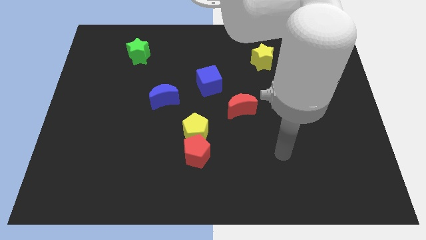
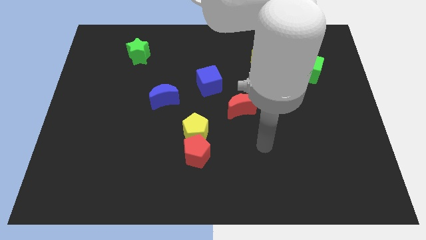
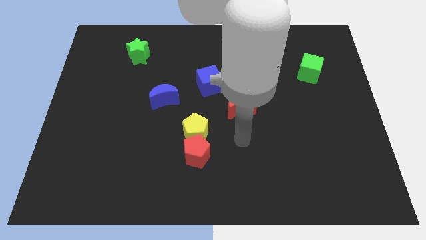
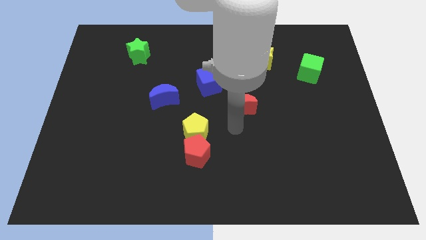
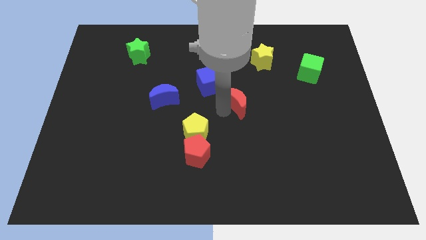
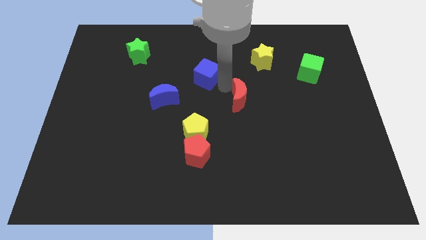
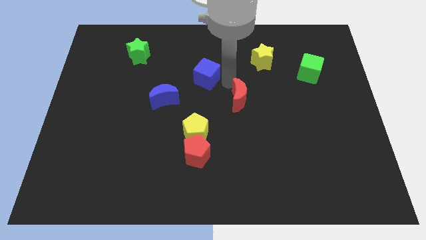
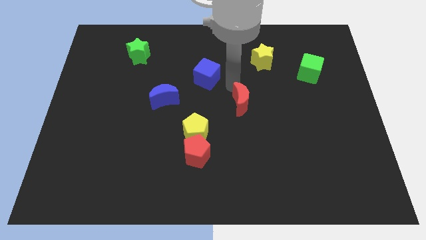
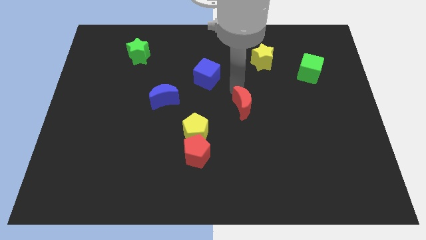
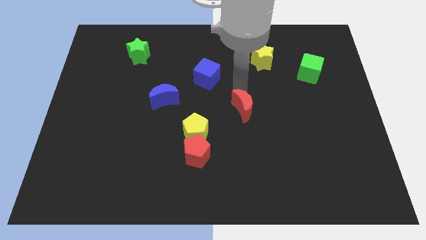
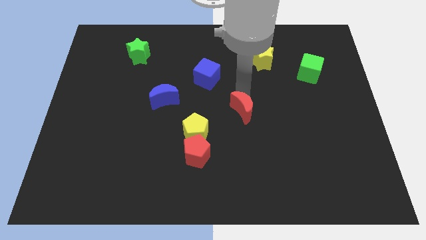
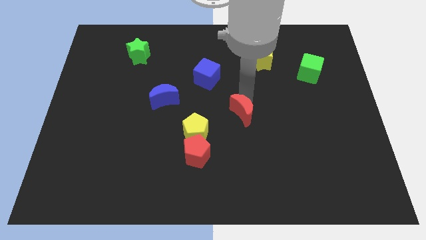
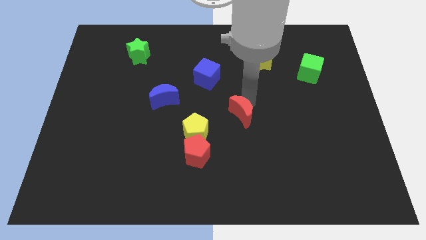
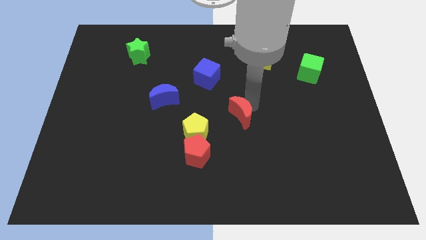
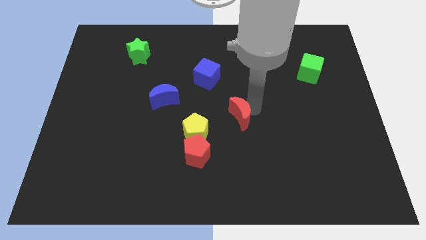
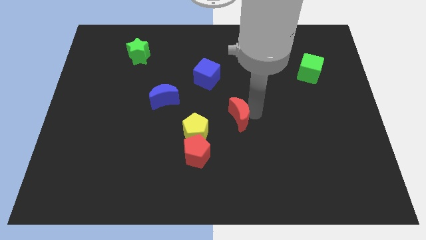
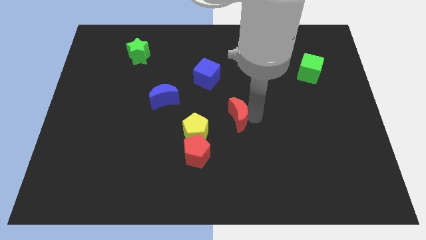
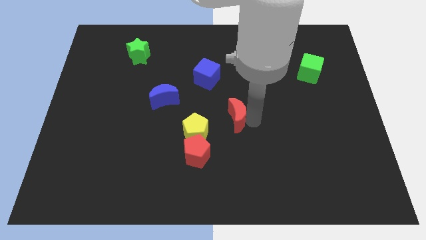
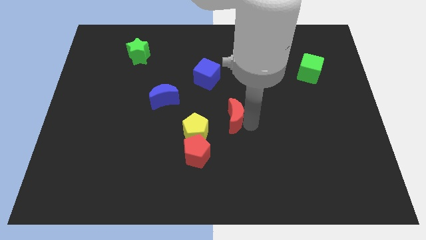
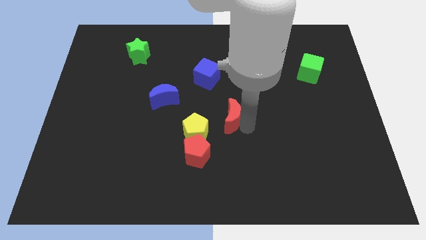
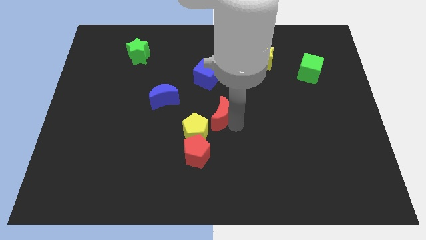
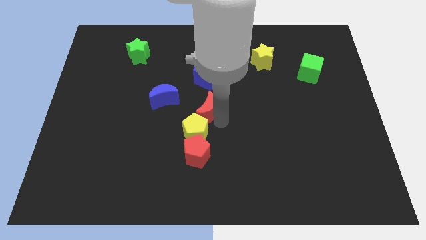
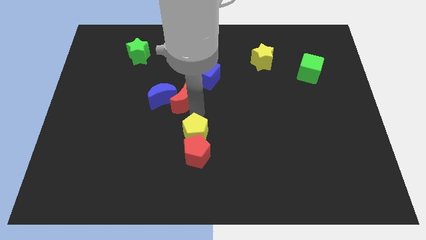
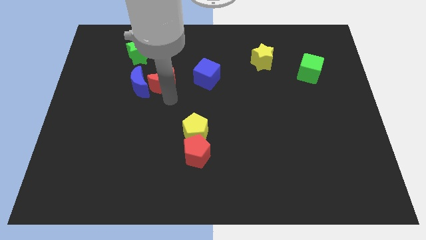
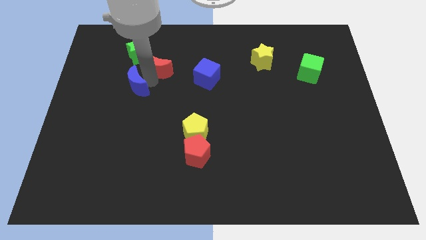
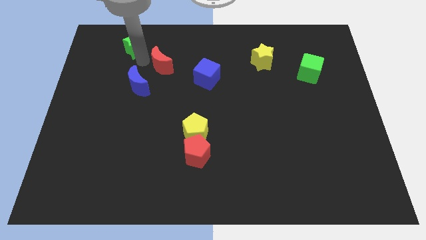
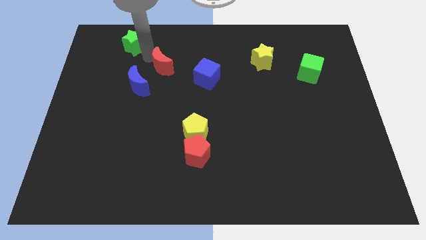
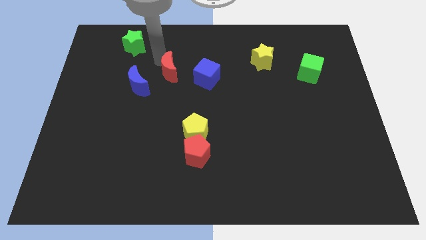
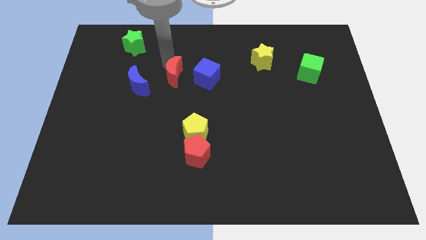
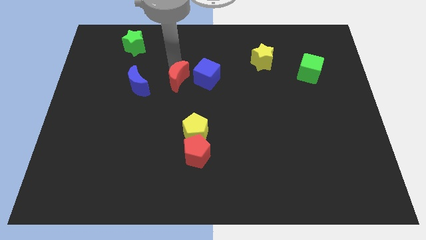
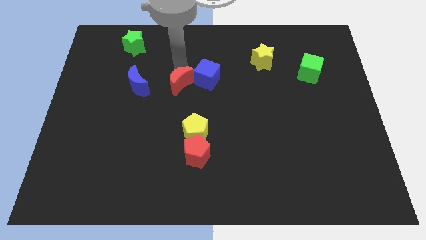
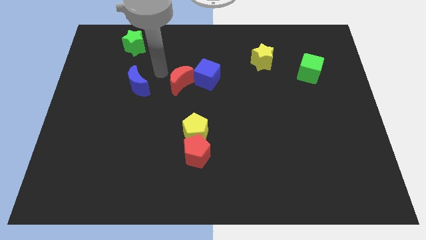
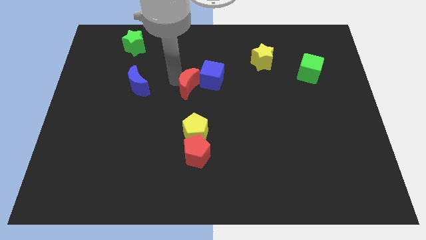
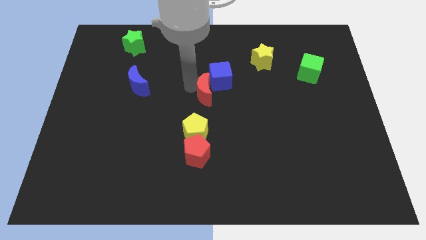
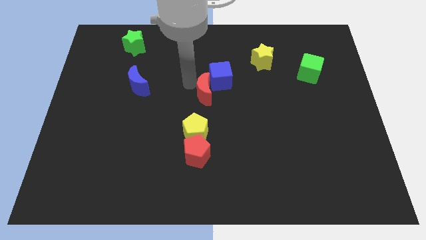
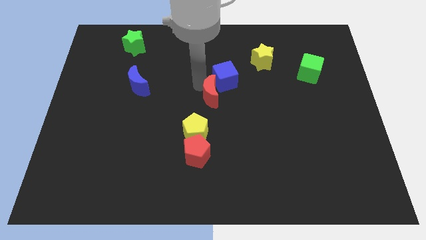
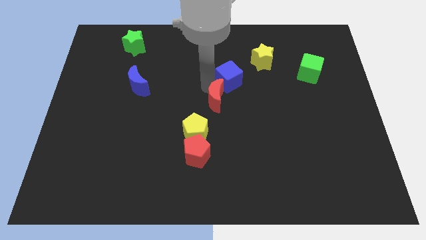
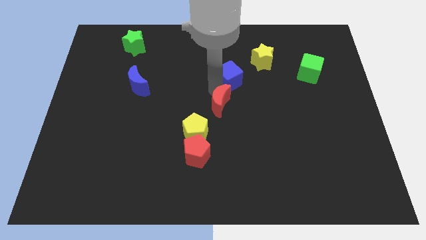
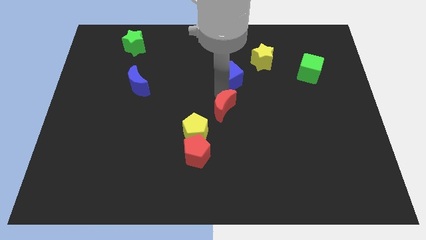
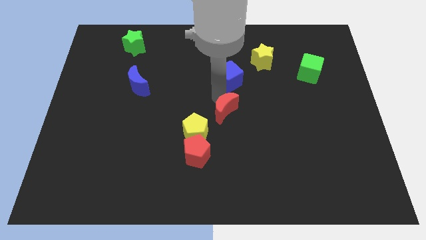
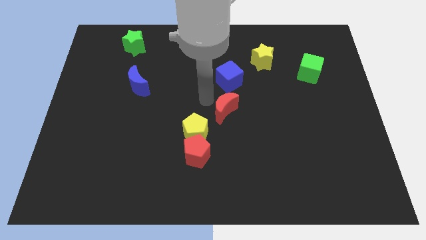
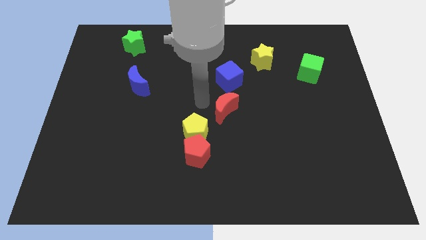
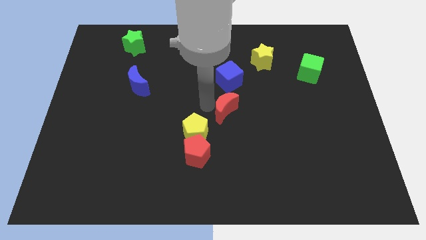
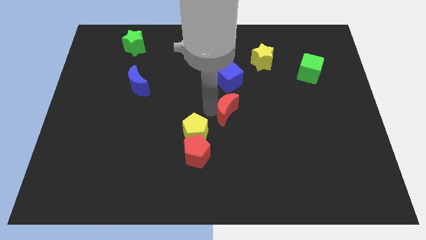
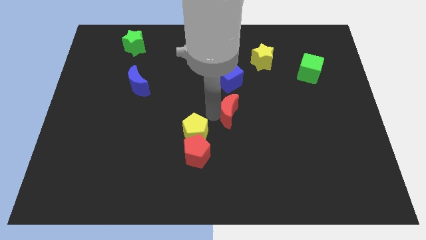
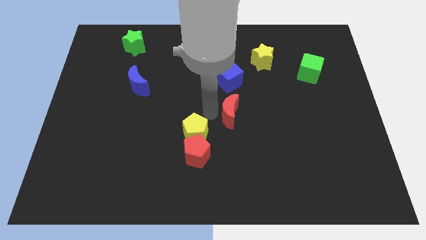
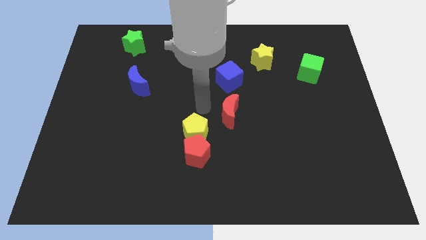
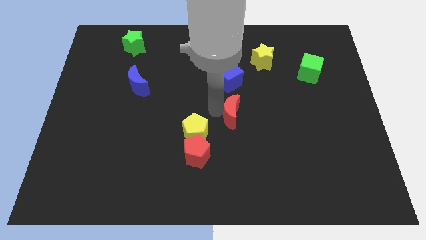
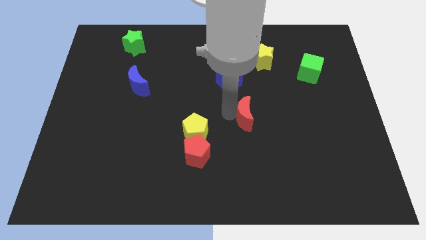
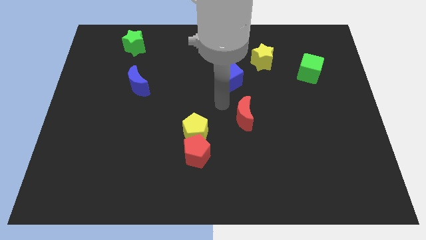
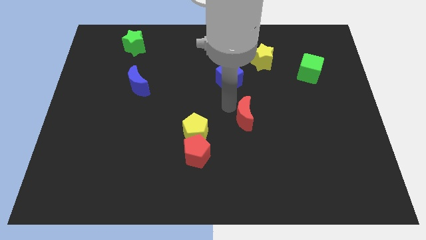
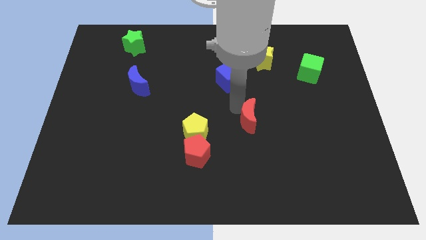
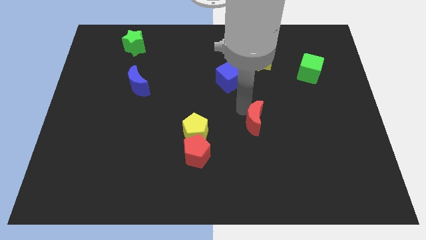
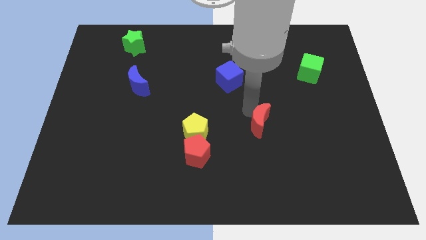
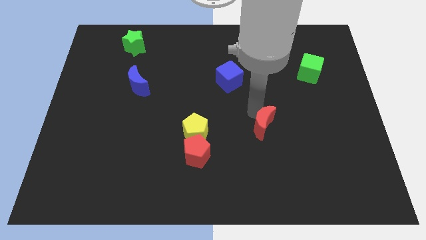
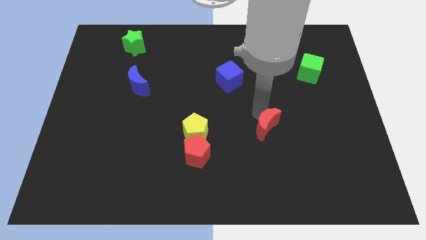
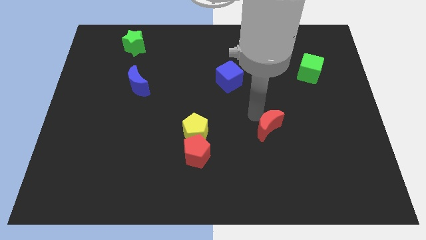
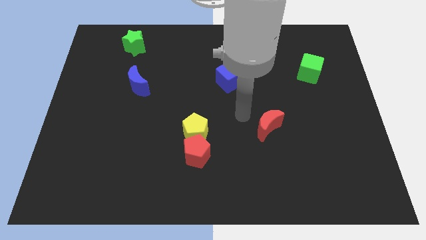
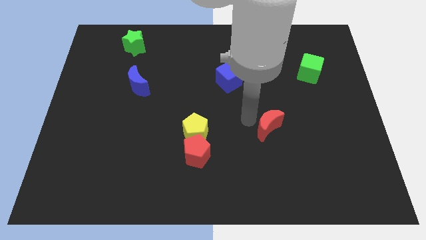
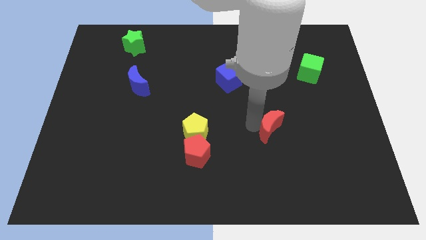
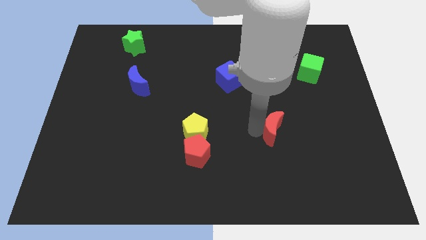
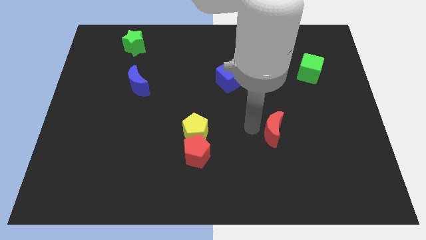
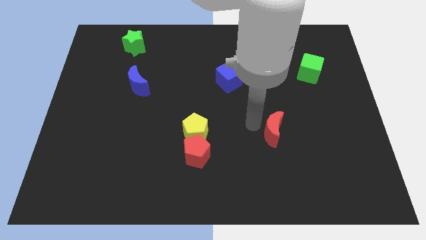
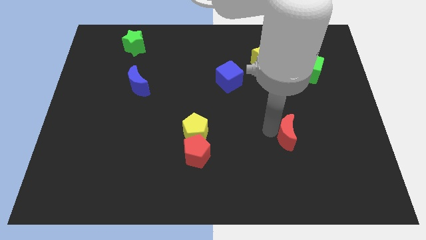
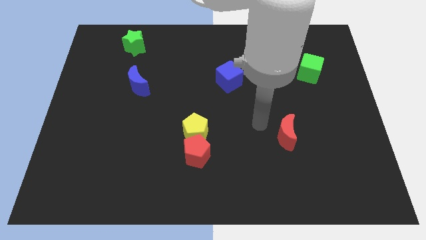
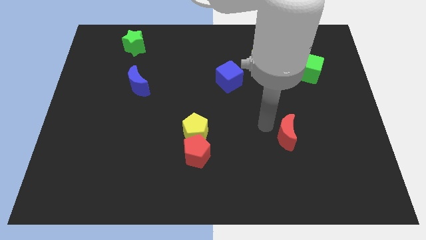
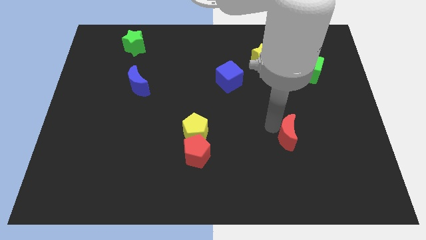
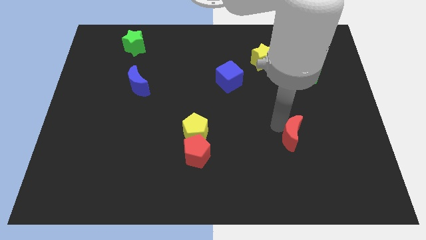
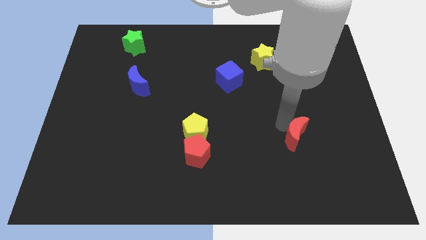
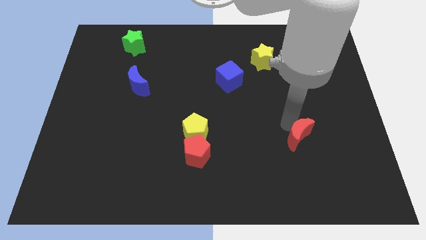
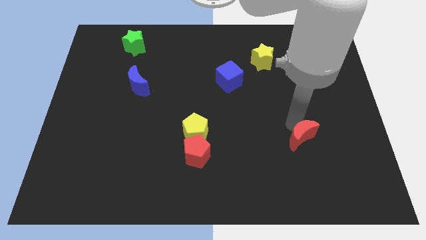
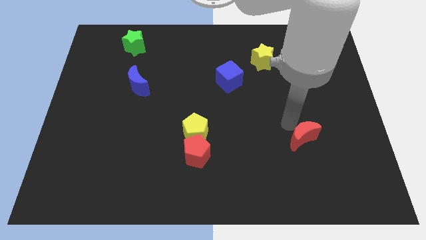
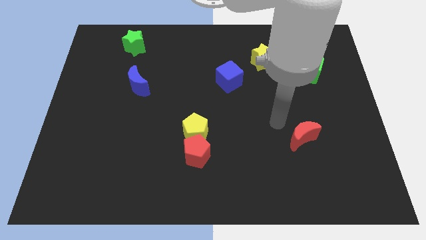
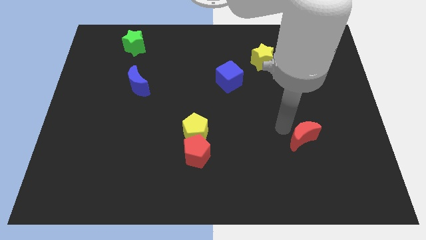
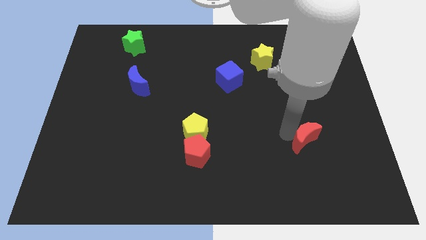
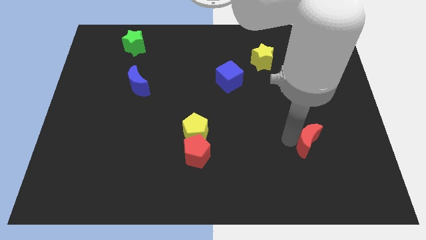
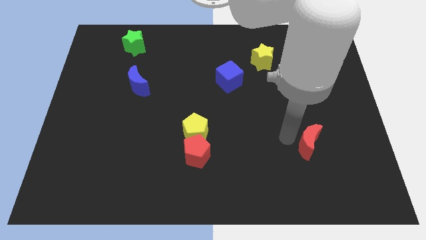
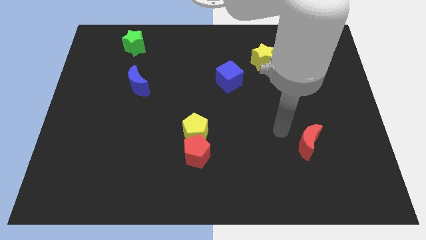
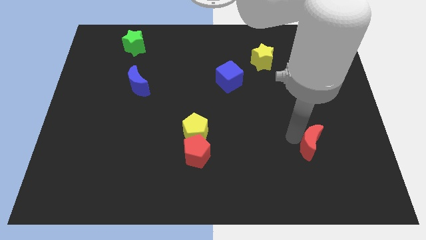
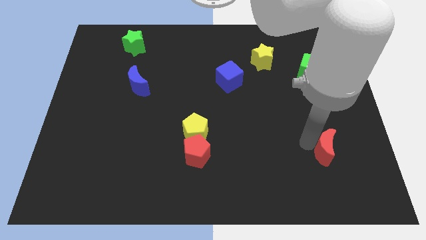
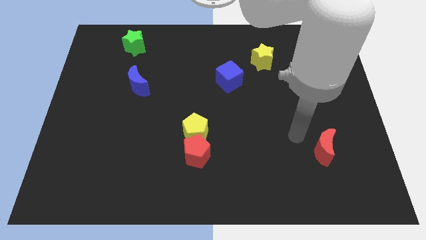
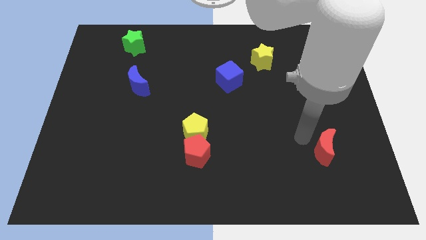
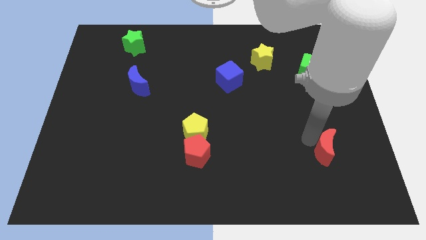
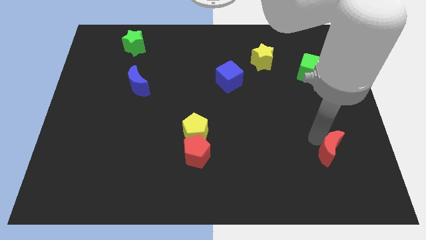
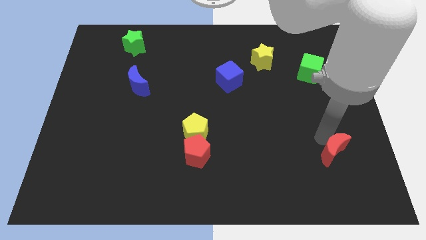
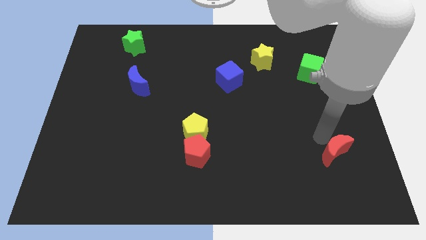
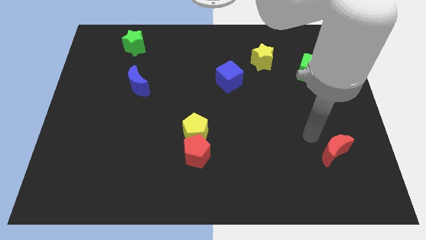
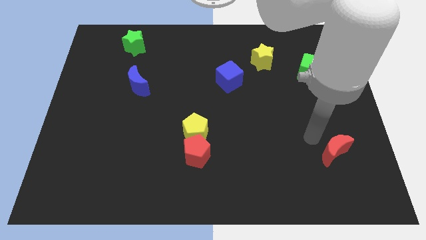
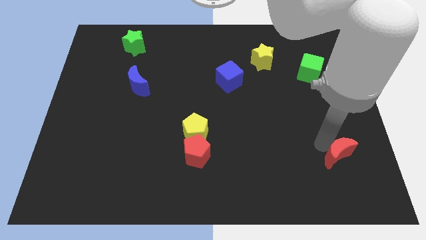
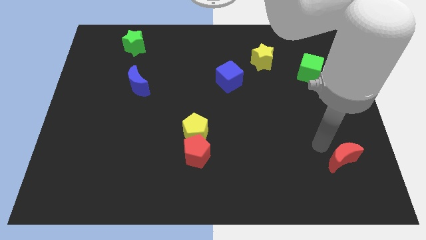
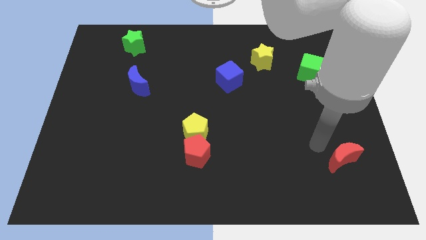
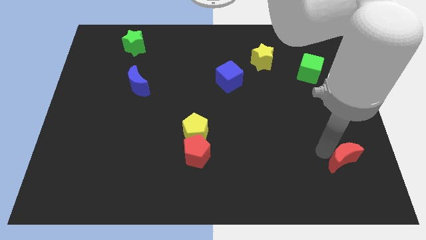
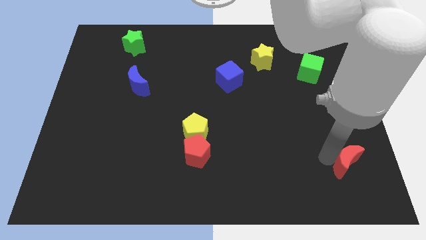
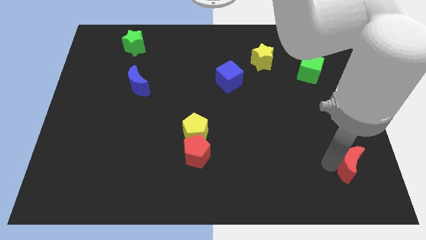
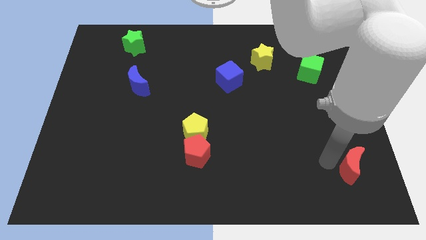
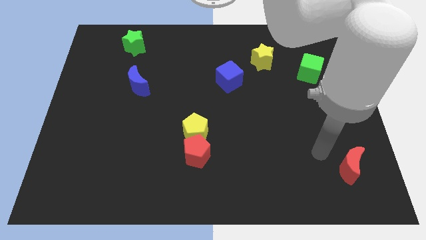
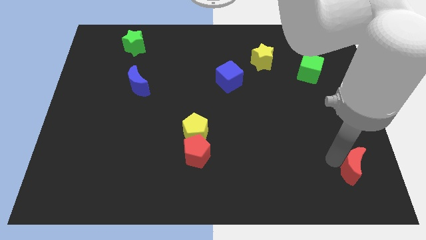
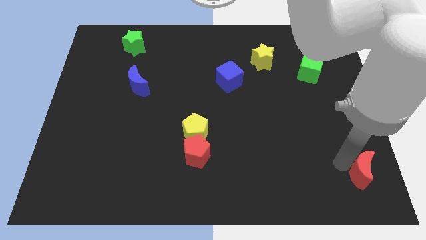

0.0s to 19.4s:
slide the red moon to the lower right corner
